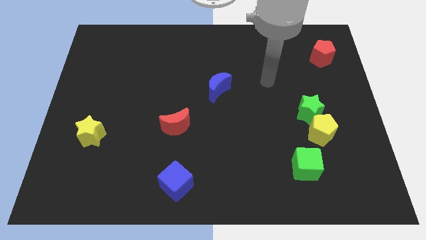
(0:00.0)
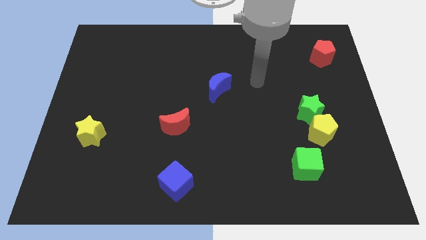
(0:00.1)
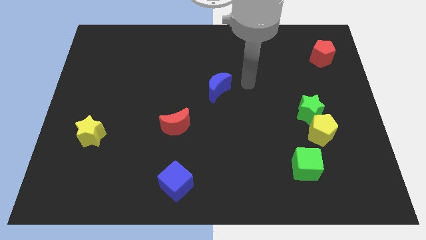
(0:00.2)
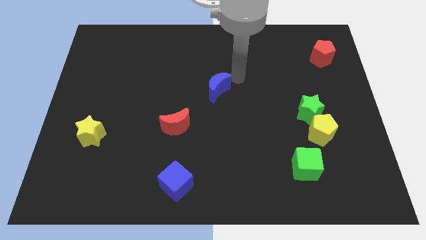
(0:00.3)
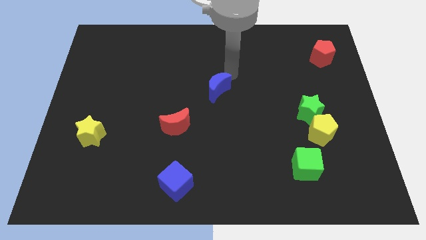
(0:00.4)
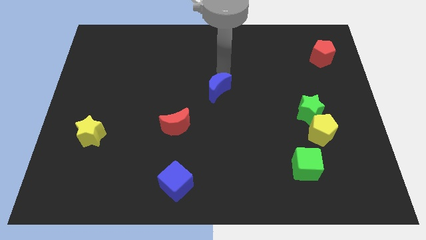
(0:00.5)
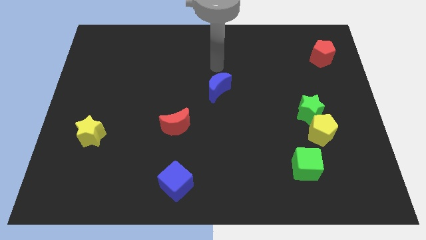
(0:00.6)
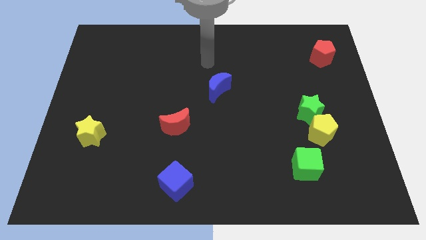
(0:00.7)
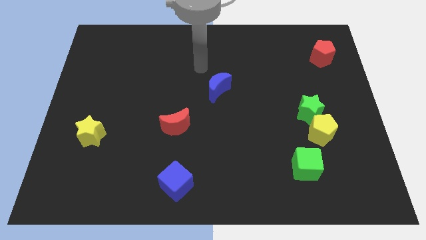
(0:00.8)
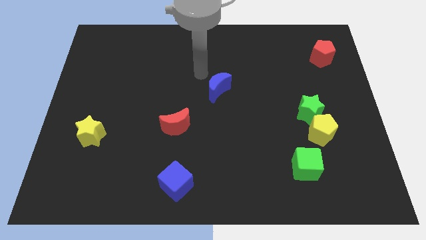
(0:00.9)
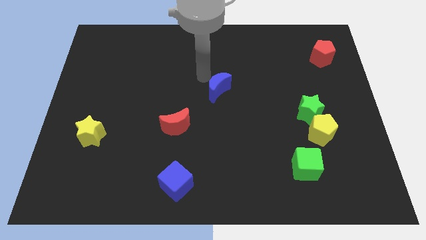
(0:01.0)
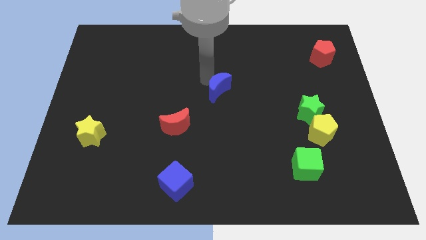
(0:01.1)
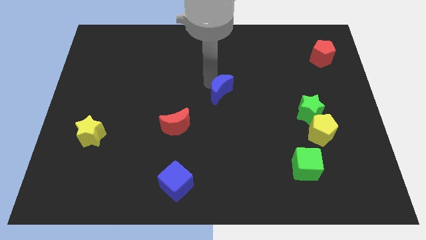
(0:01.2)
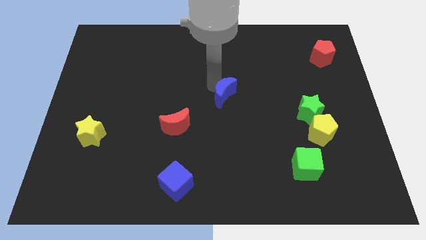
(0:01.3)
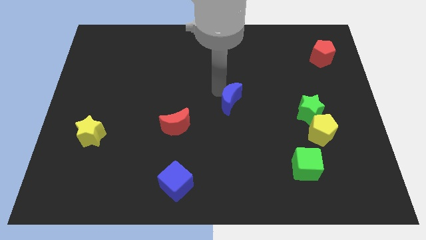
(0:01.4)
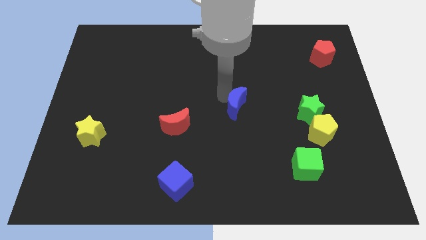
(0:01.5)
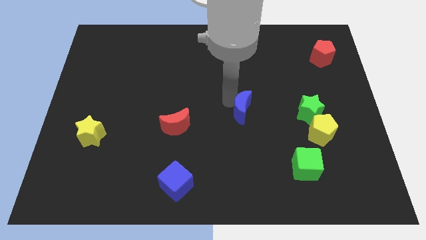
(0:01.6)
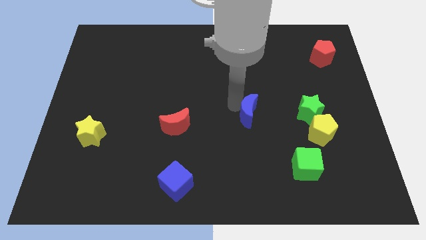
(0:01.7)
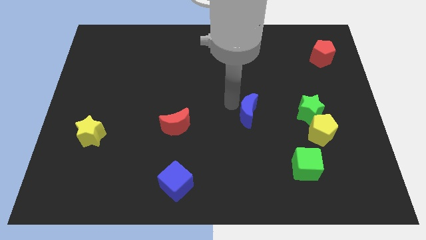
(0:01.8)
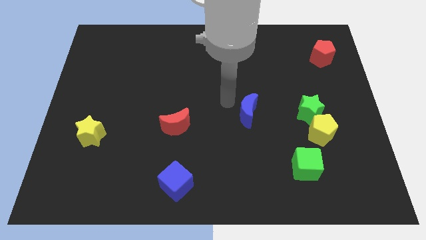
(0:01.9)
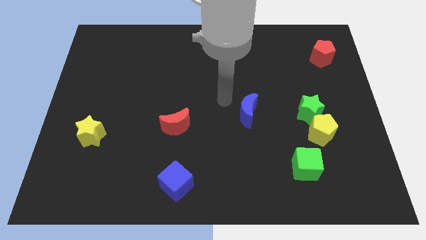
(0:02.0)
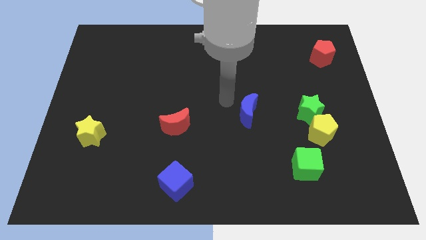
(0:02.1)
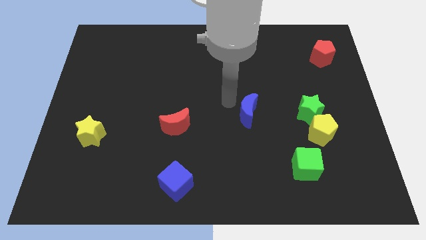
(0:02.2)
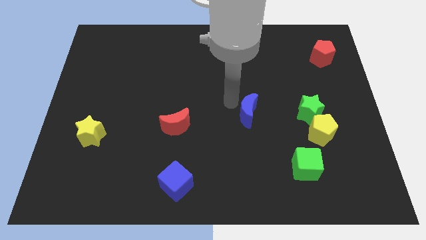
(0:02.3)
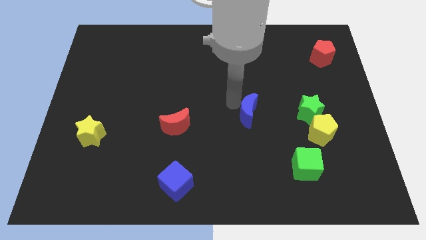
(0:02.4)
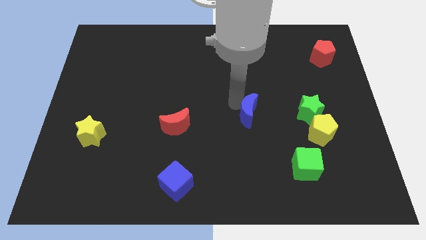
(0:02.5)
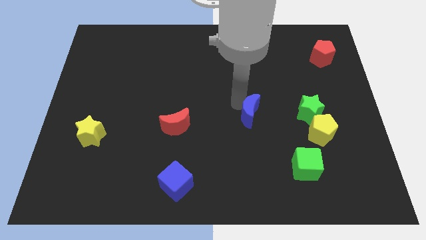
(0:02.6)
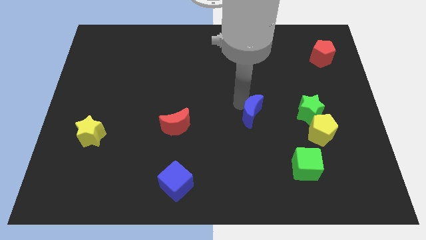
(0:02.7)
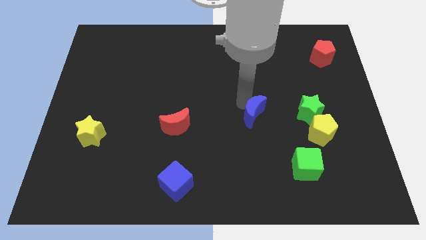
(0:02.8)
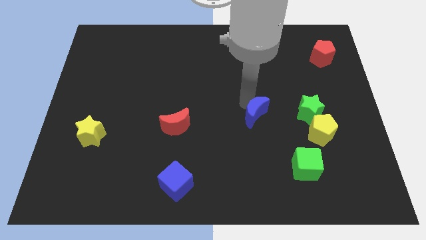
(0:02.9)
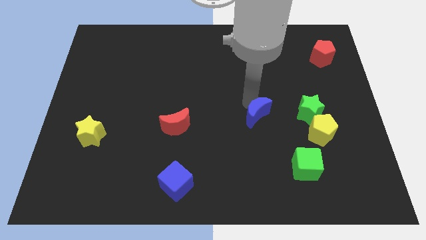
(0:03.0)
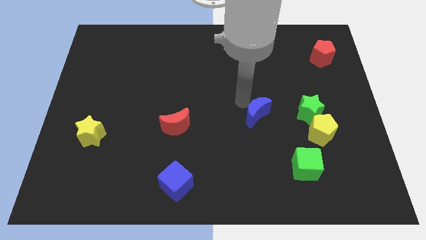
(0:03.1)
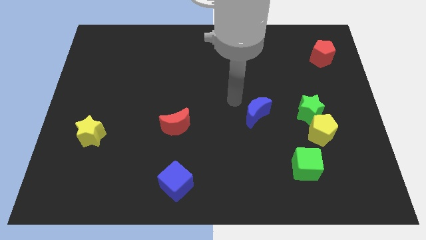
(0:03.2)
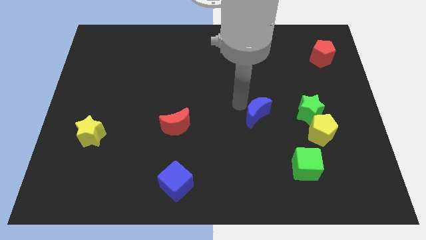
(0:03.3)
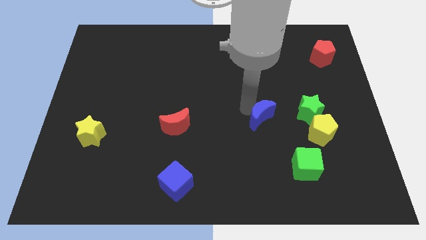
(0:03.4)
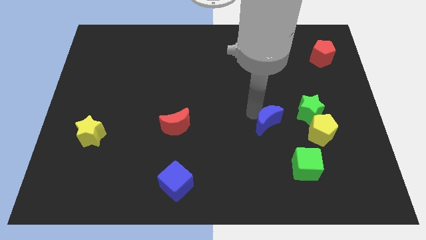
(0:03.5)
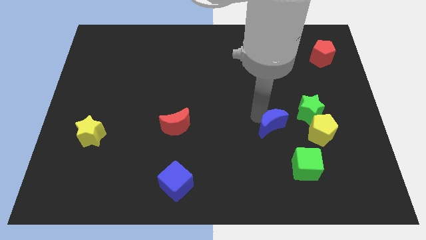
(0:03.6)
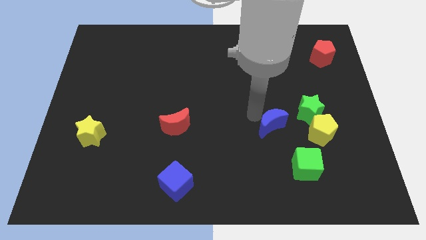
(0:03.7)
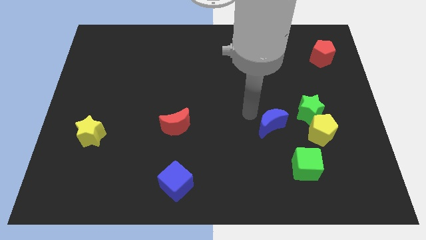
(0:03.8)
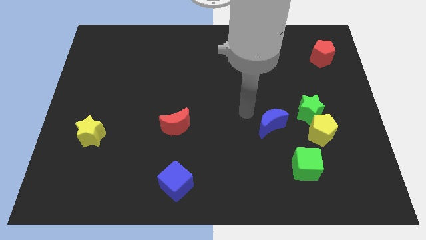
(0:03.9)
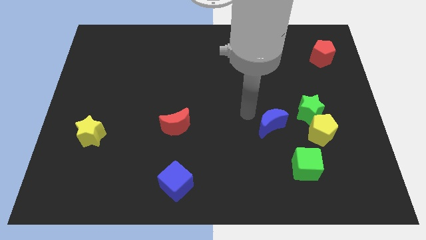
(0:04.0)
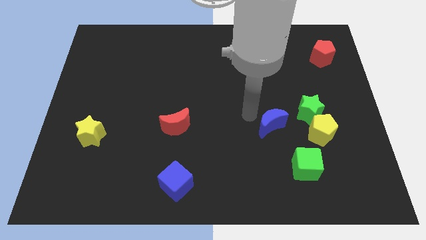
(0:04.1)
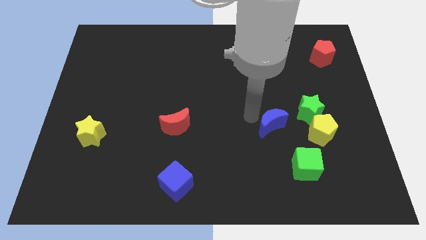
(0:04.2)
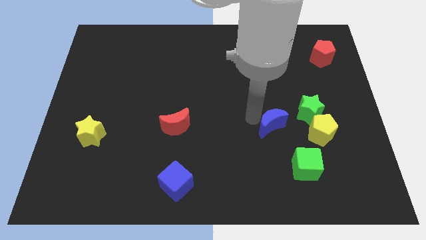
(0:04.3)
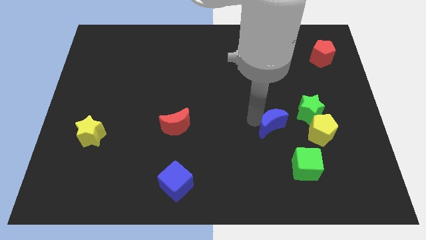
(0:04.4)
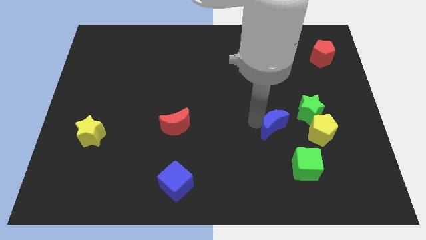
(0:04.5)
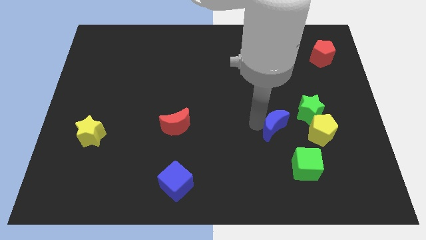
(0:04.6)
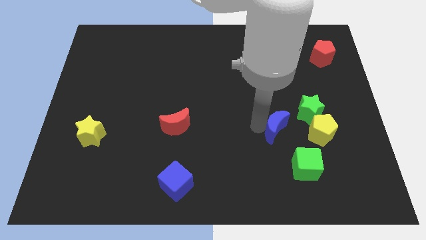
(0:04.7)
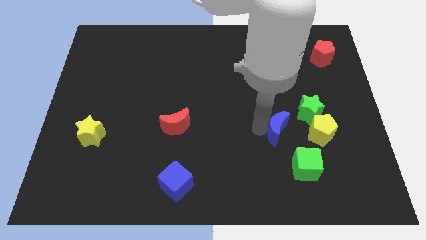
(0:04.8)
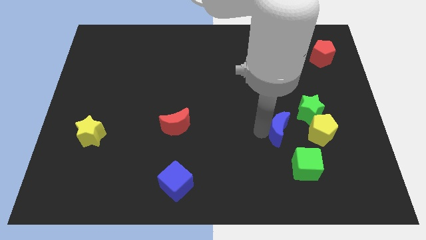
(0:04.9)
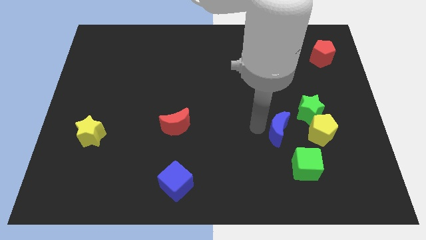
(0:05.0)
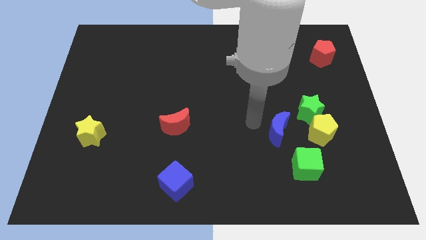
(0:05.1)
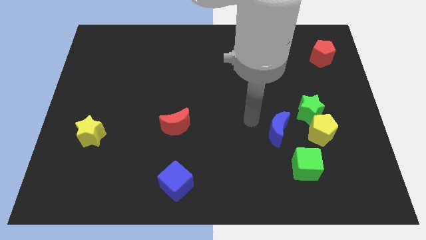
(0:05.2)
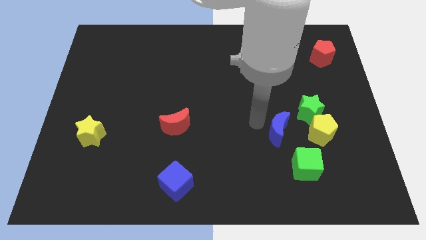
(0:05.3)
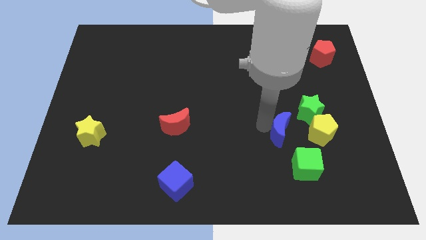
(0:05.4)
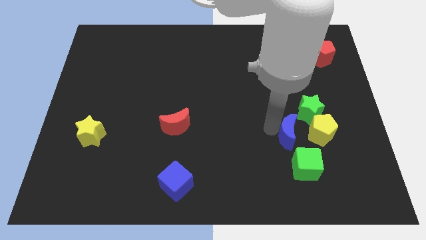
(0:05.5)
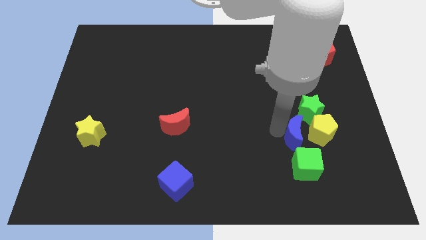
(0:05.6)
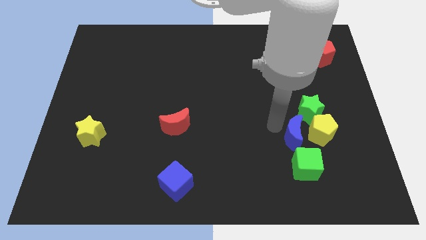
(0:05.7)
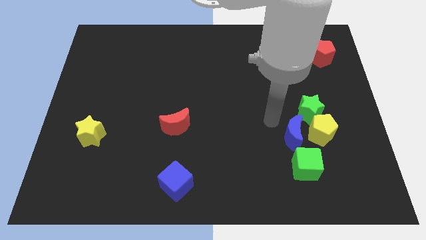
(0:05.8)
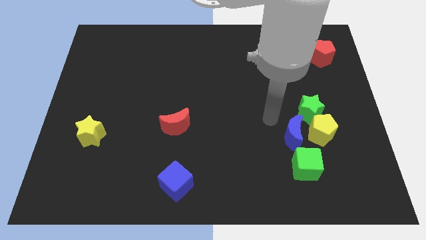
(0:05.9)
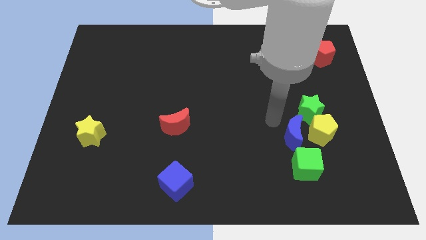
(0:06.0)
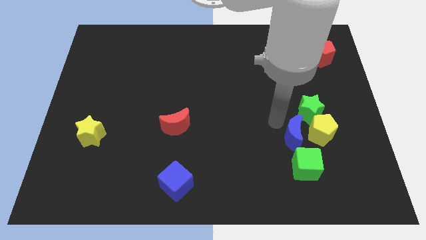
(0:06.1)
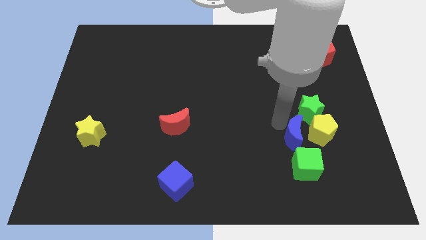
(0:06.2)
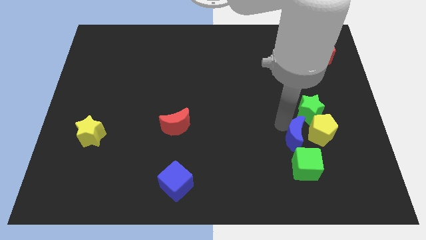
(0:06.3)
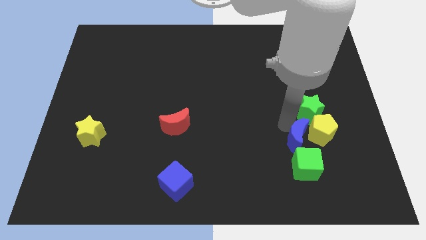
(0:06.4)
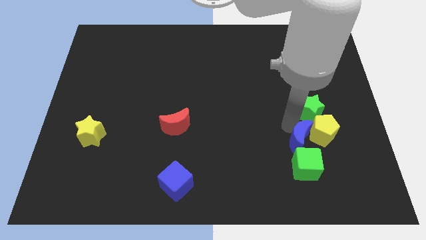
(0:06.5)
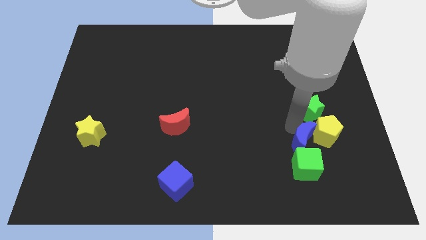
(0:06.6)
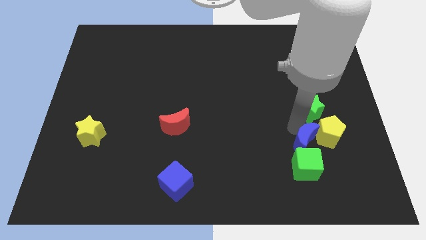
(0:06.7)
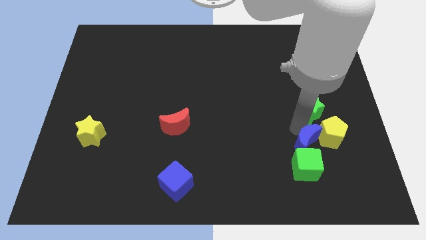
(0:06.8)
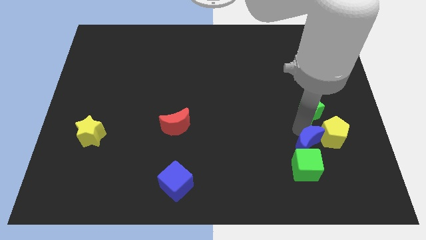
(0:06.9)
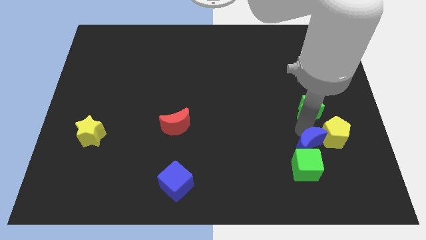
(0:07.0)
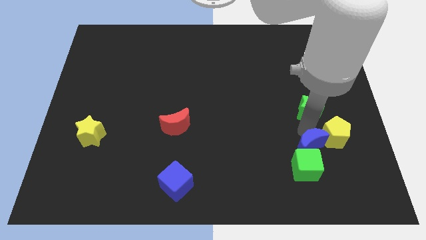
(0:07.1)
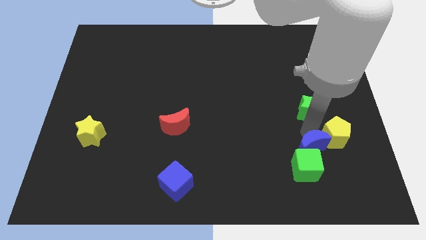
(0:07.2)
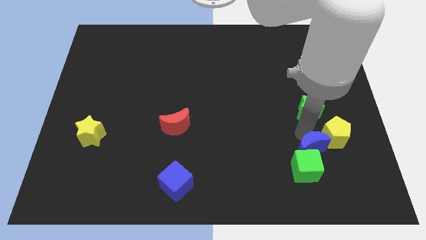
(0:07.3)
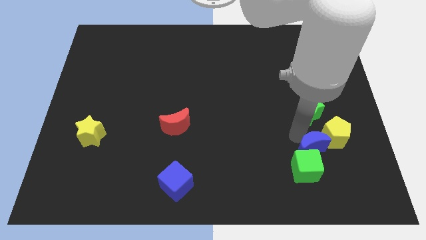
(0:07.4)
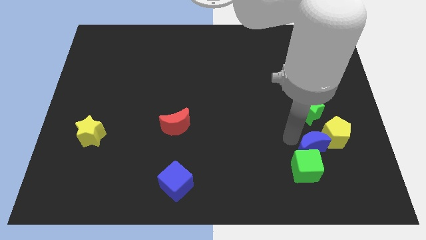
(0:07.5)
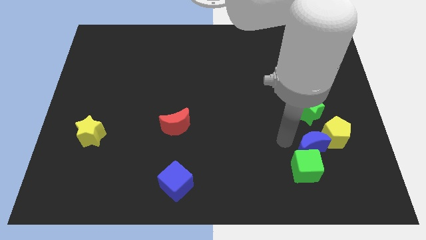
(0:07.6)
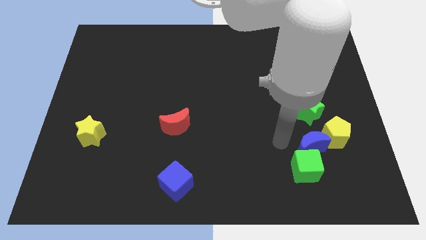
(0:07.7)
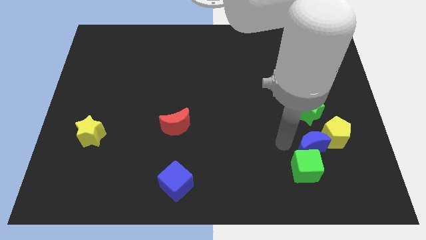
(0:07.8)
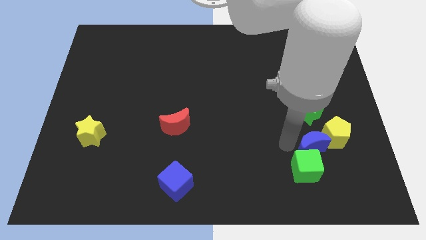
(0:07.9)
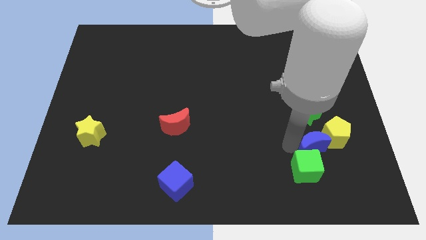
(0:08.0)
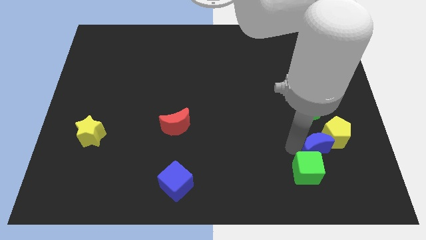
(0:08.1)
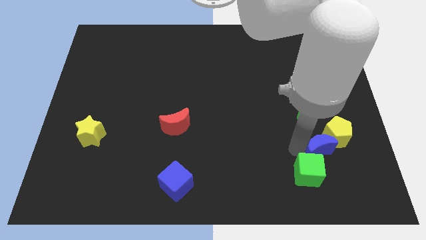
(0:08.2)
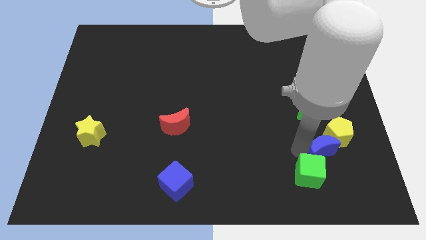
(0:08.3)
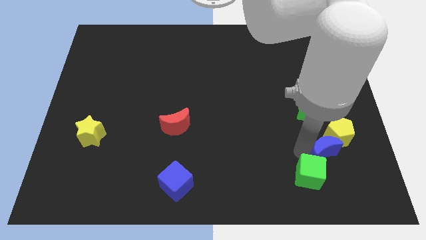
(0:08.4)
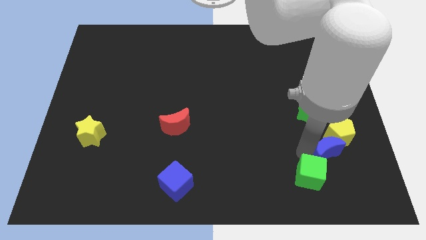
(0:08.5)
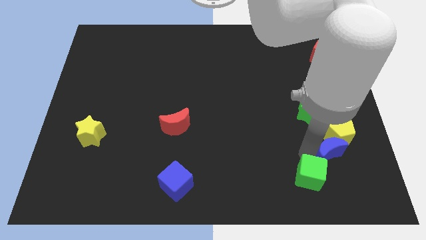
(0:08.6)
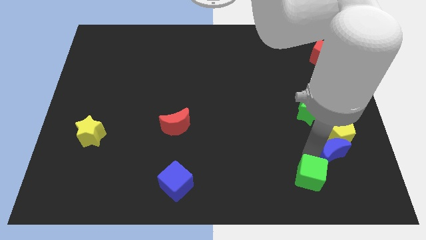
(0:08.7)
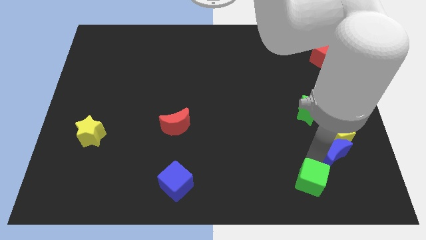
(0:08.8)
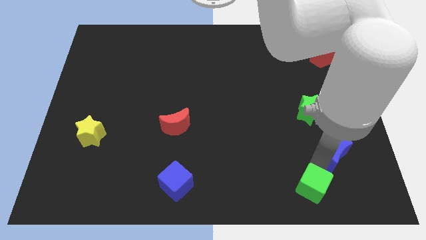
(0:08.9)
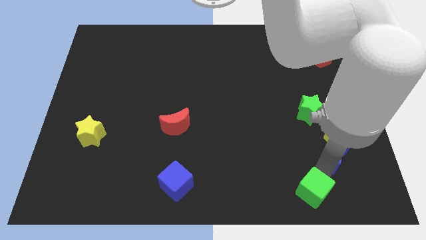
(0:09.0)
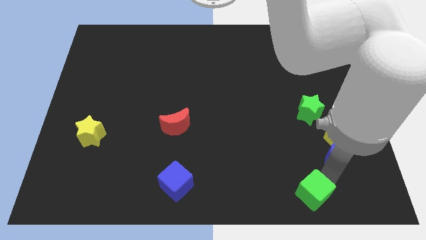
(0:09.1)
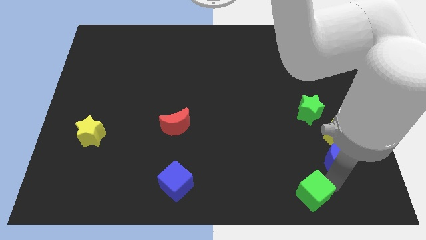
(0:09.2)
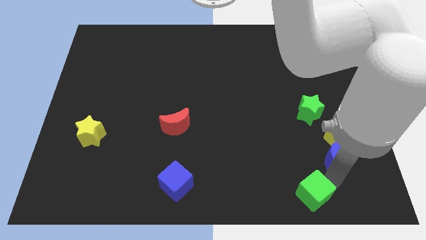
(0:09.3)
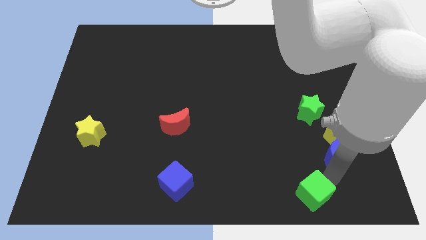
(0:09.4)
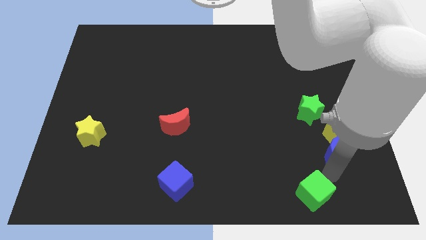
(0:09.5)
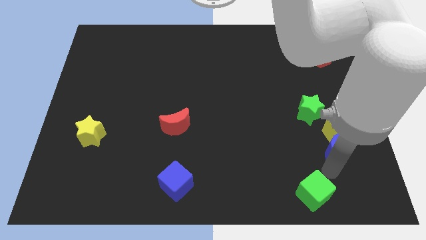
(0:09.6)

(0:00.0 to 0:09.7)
move the blue moon to the bottom right side of the green star
